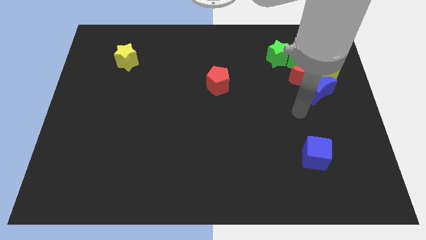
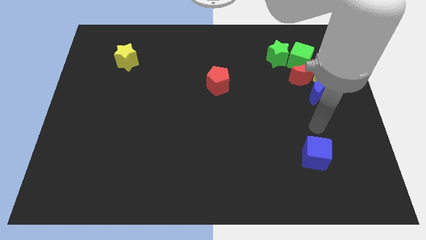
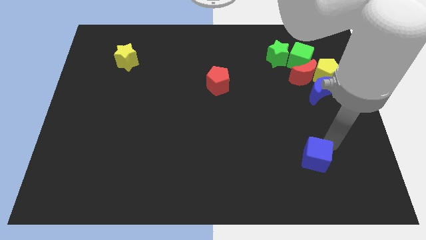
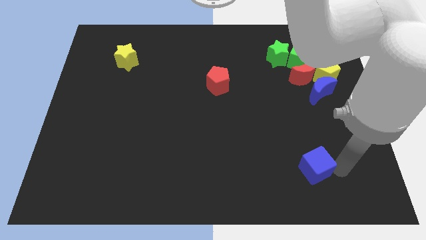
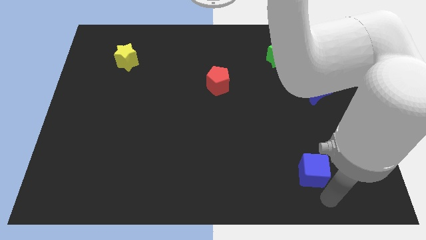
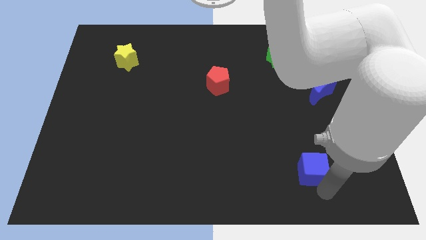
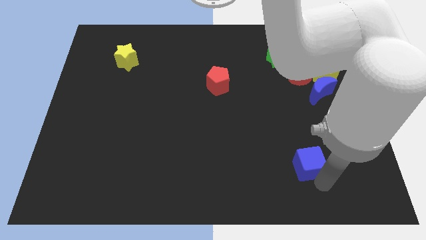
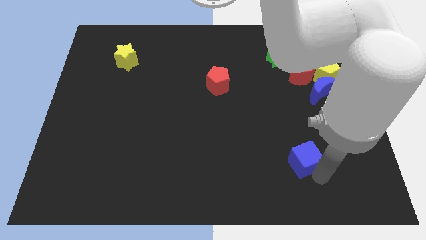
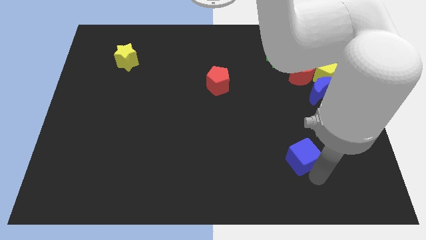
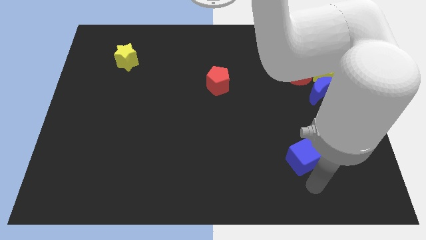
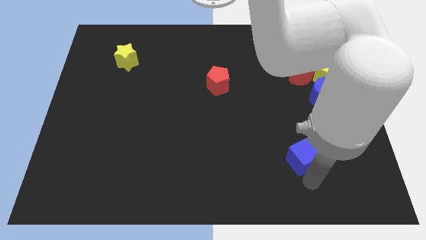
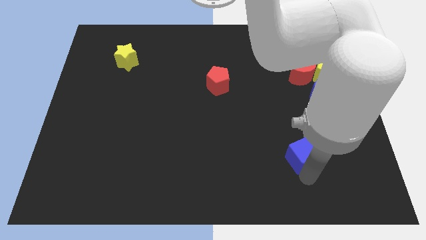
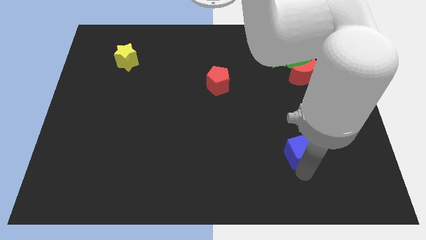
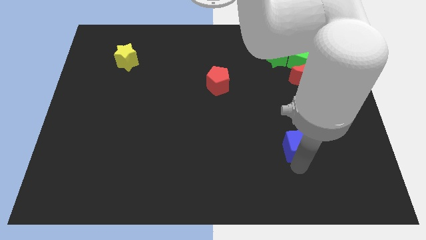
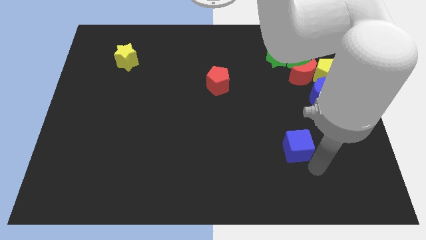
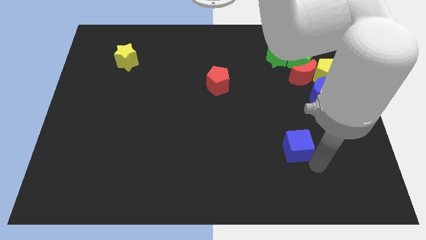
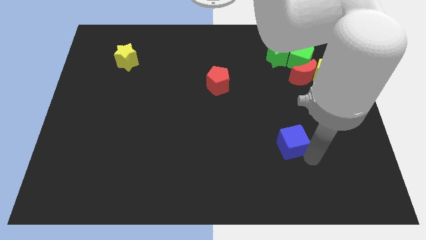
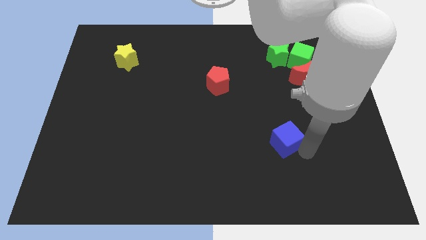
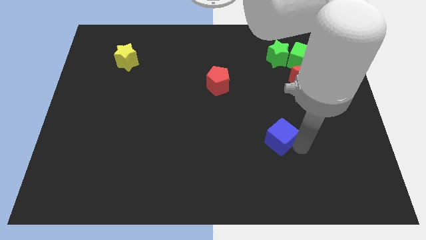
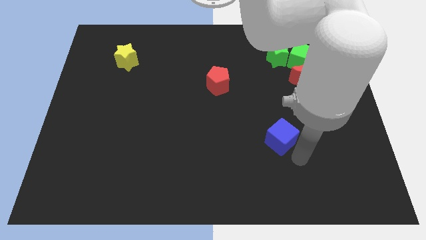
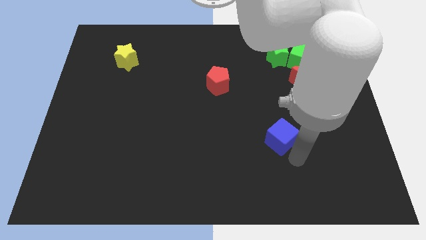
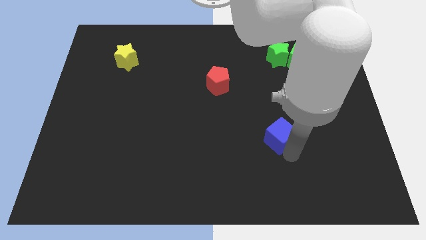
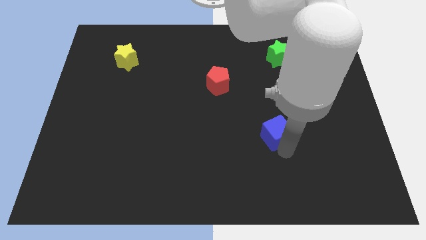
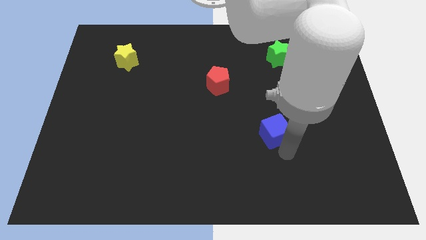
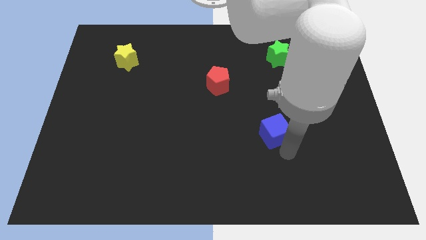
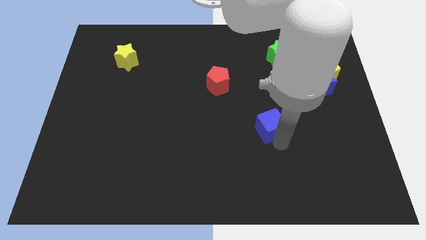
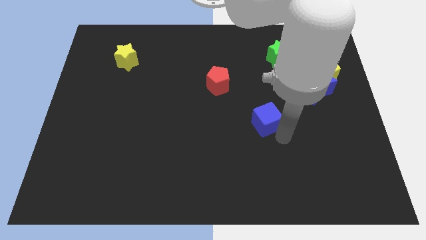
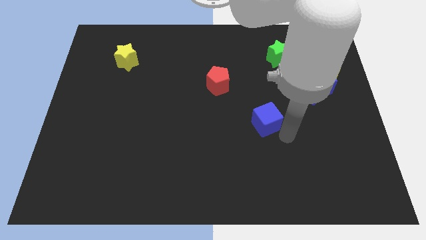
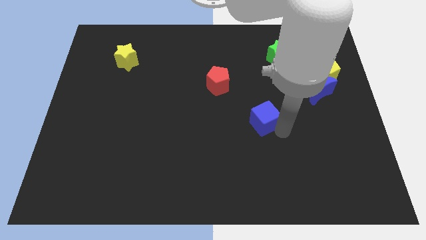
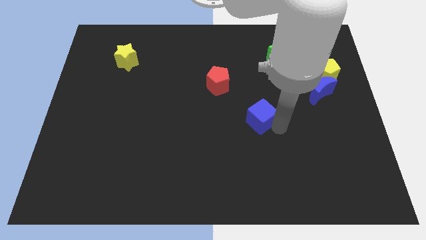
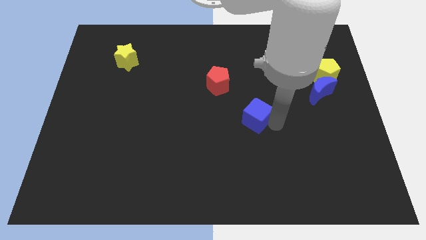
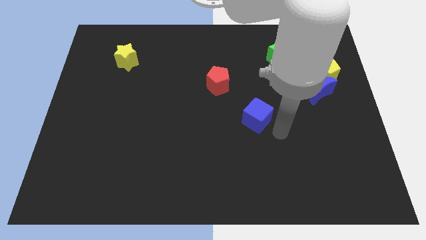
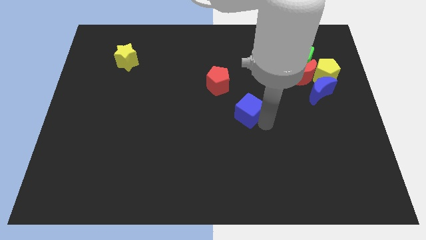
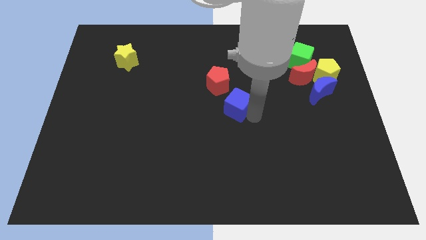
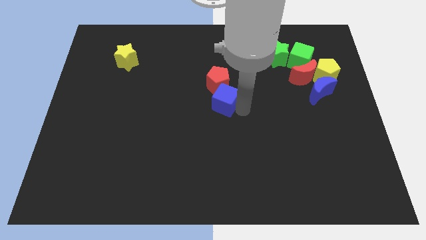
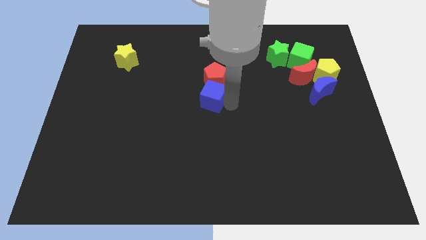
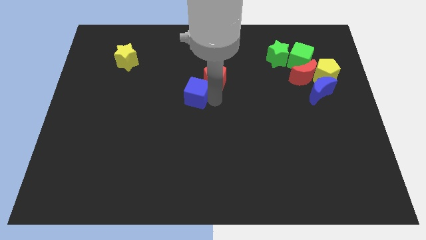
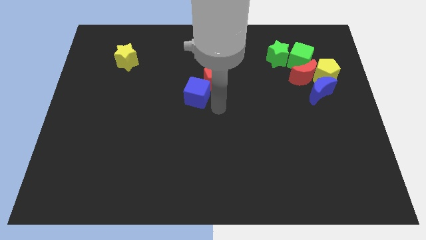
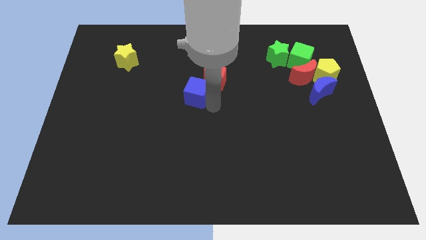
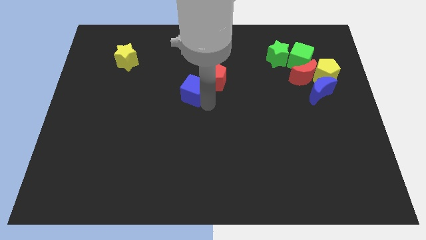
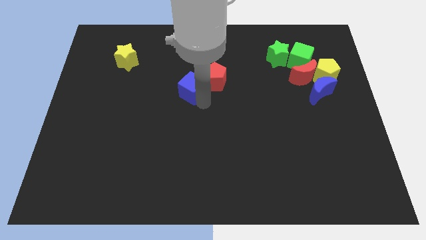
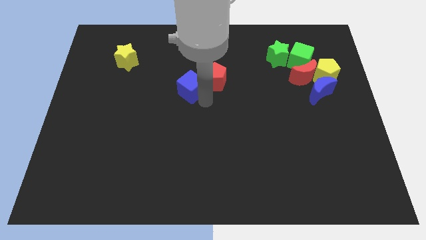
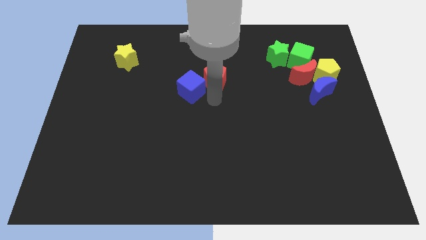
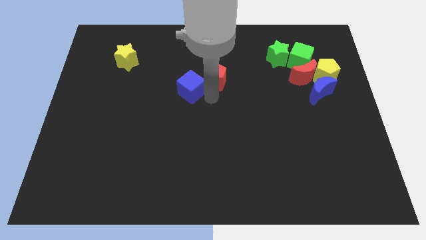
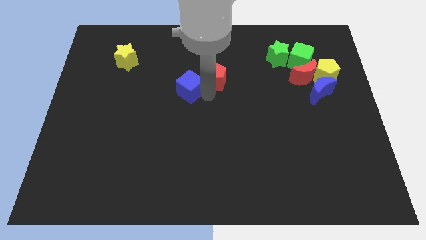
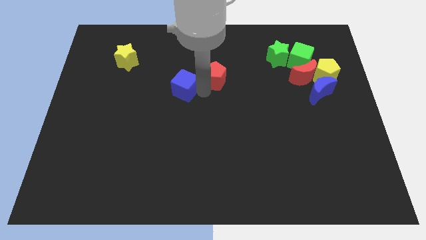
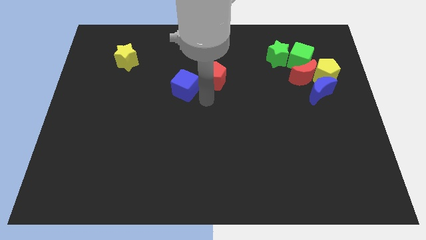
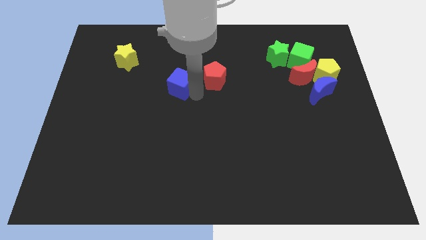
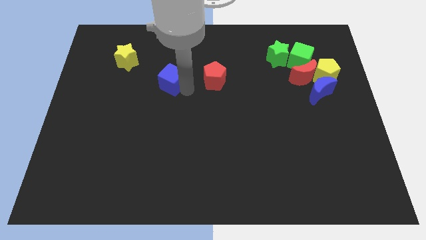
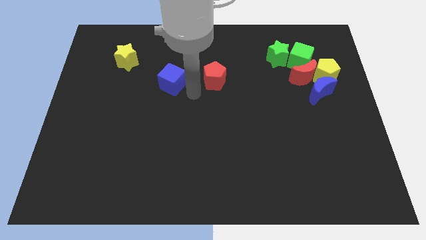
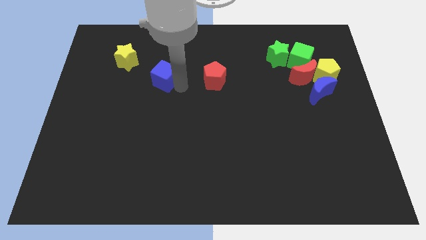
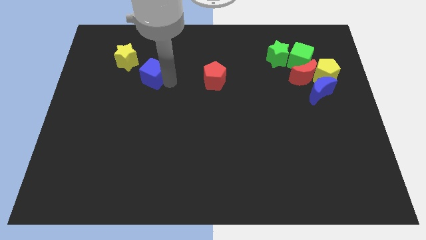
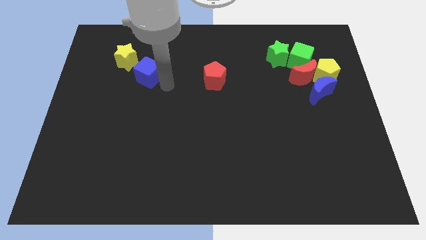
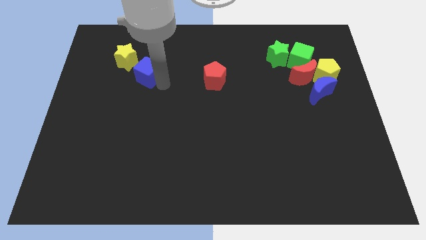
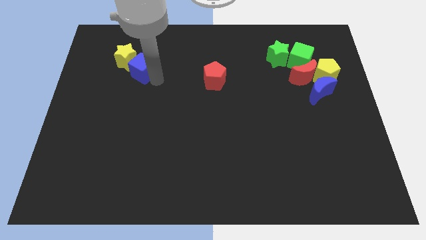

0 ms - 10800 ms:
move the blue cube next to the yellow star

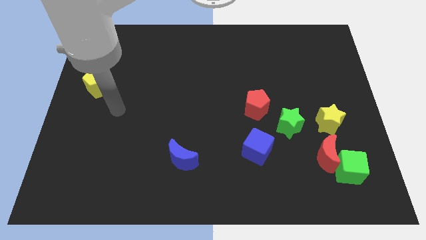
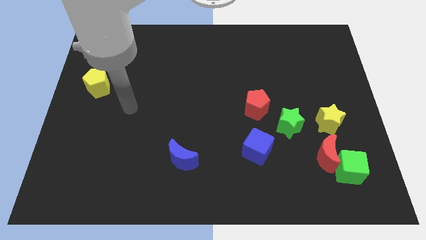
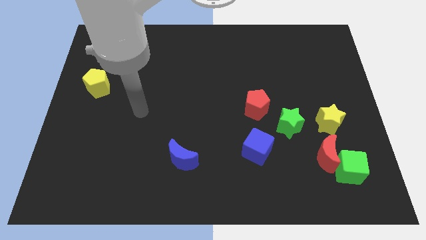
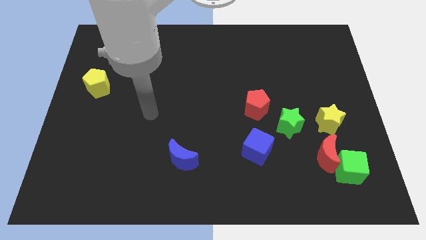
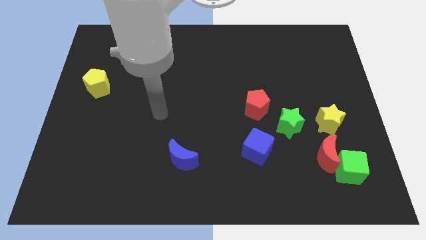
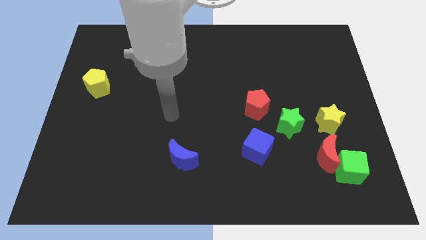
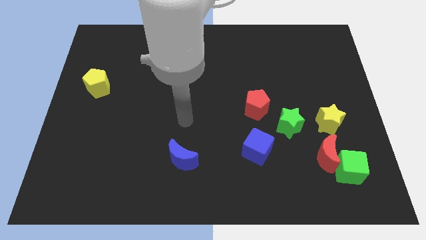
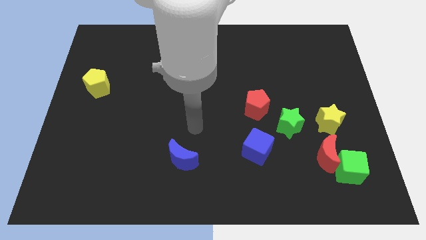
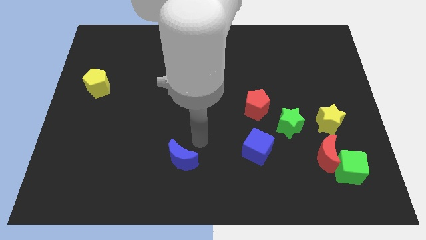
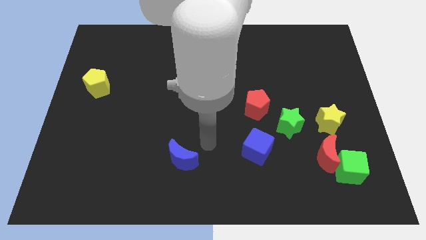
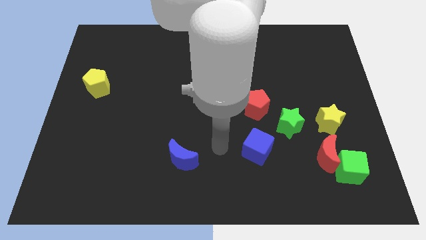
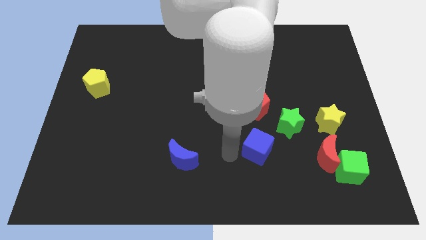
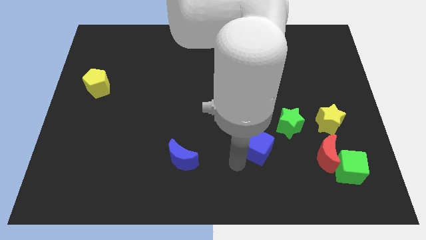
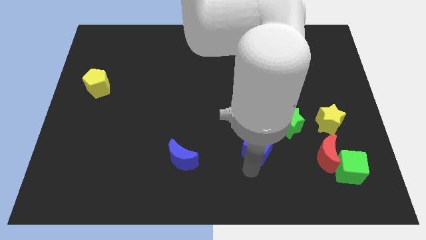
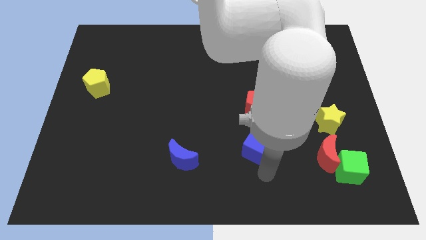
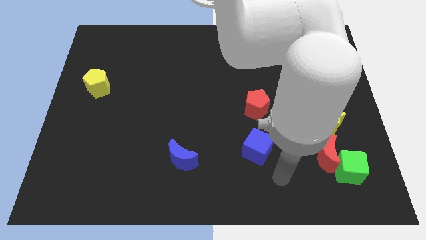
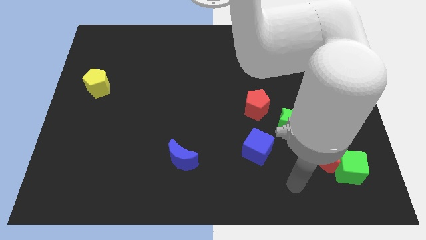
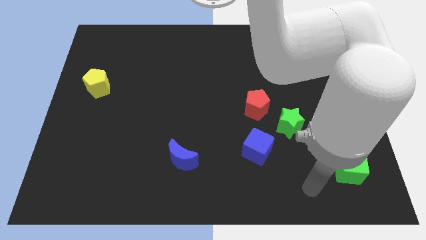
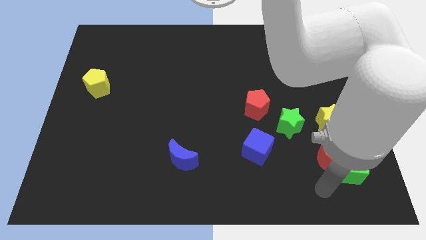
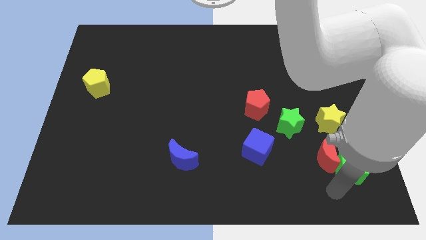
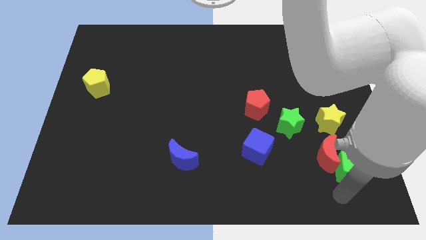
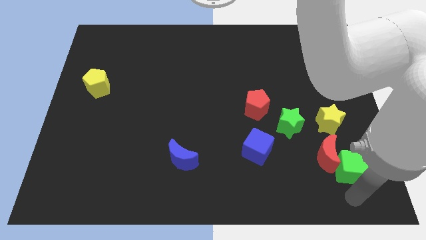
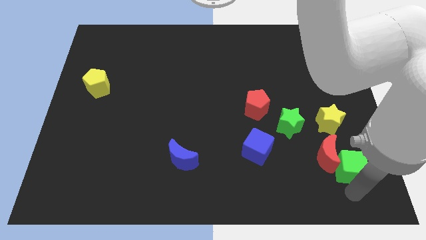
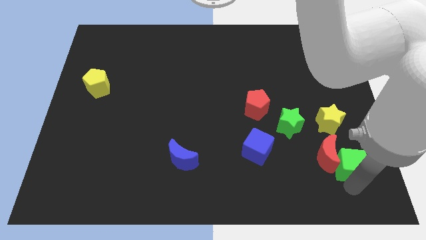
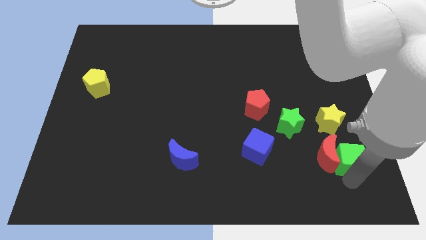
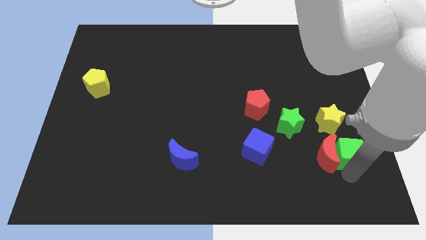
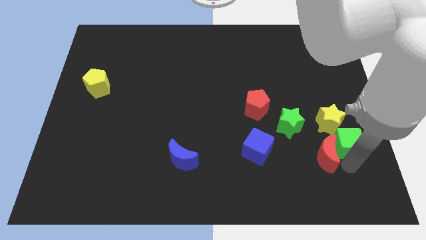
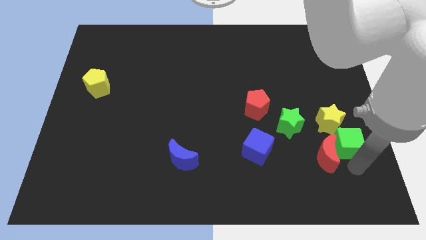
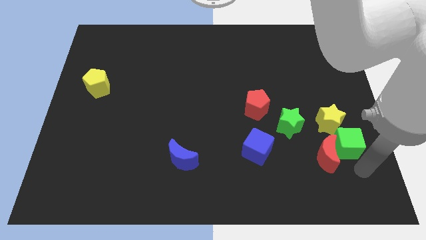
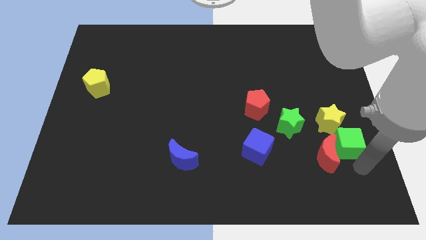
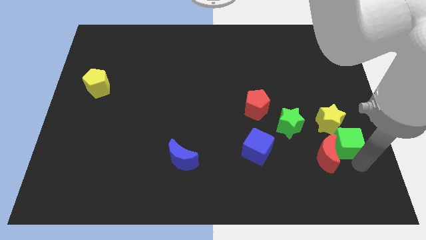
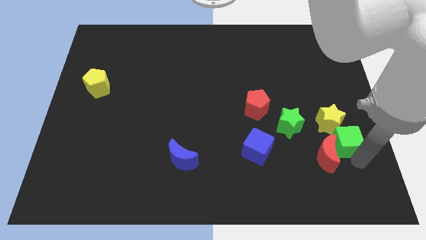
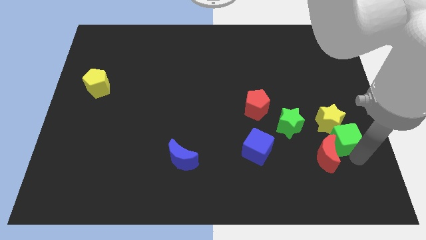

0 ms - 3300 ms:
move the green cube next to the yellow star
